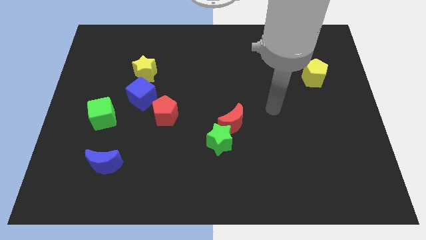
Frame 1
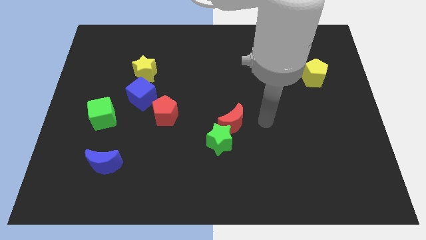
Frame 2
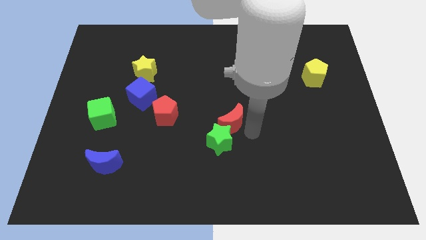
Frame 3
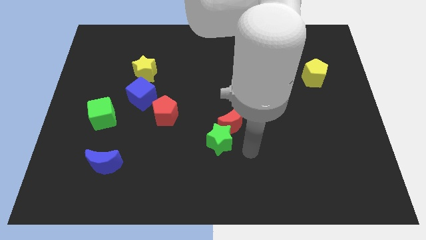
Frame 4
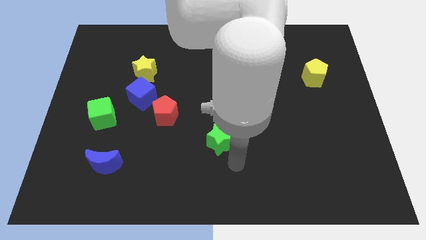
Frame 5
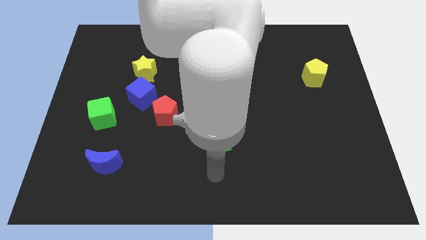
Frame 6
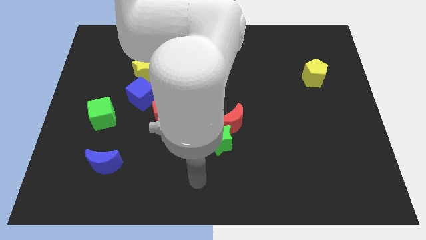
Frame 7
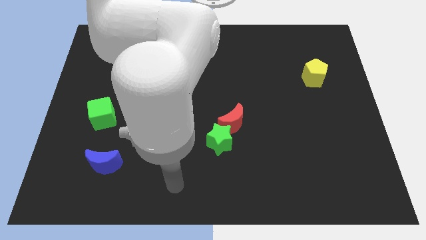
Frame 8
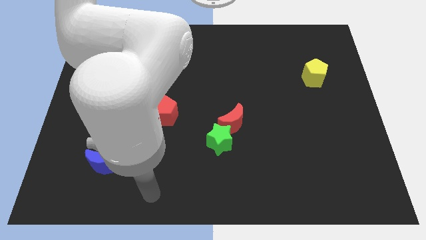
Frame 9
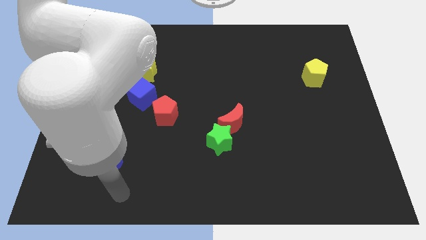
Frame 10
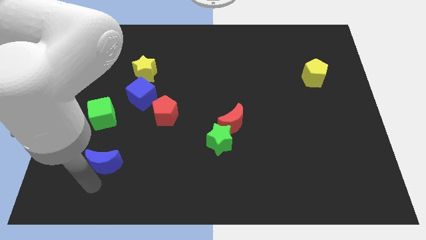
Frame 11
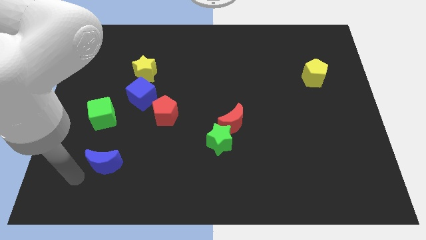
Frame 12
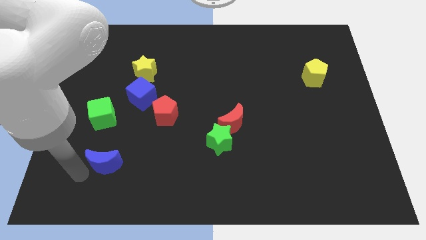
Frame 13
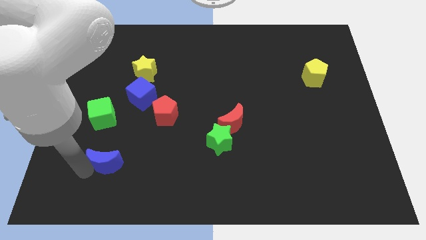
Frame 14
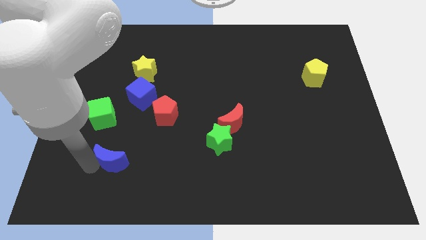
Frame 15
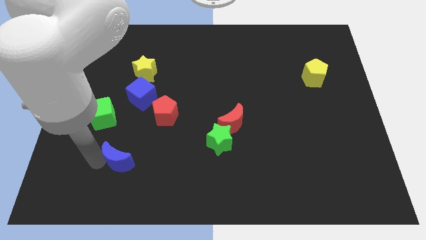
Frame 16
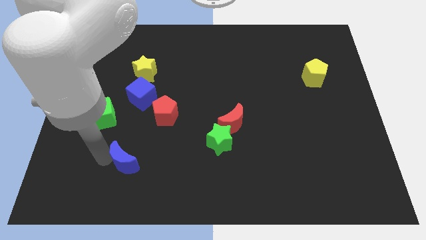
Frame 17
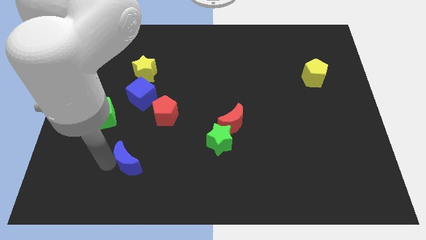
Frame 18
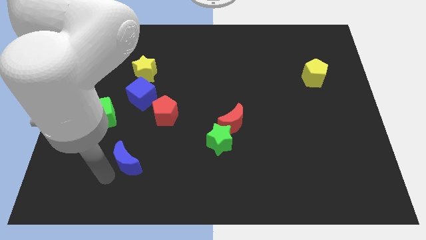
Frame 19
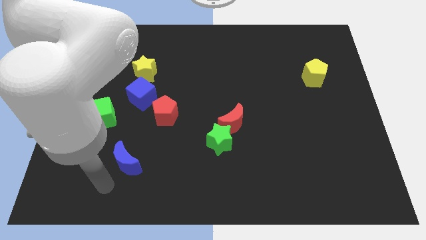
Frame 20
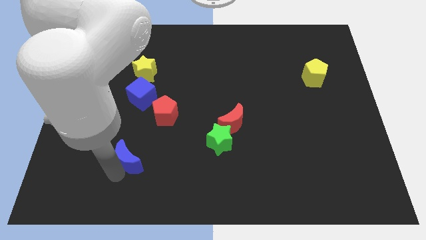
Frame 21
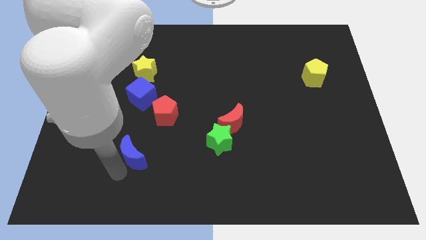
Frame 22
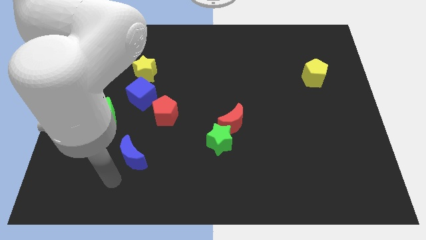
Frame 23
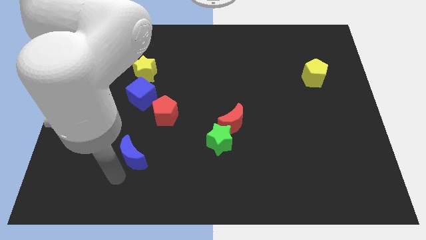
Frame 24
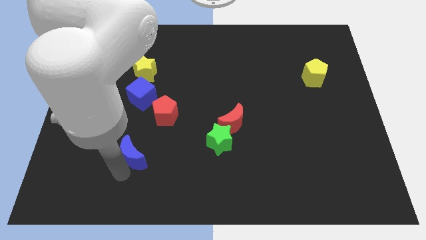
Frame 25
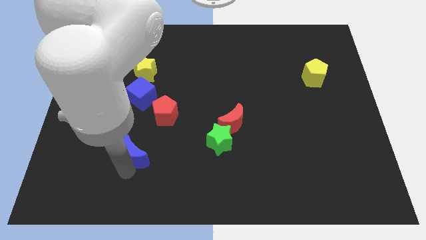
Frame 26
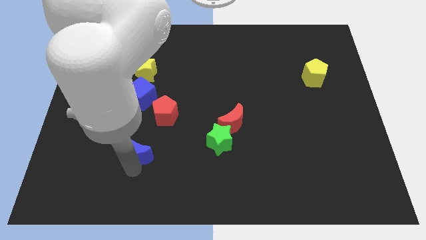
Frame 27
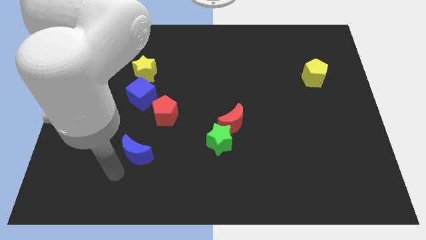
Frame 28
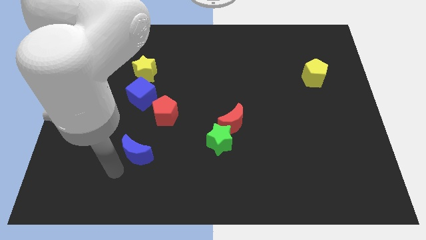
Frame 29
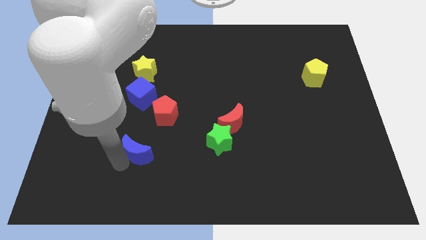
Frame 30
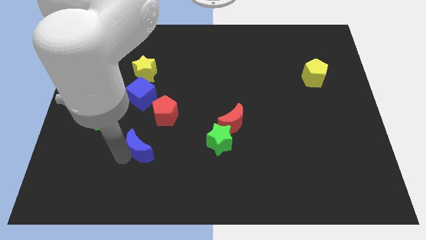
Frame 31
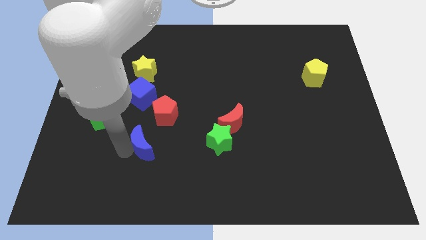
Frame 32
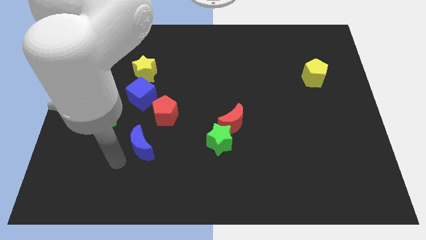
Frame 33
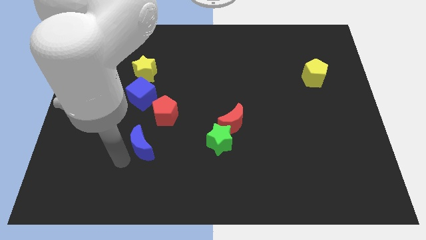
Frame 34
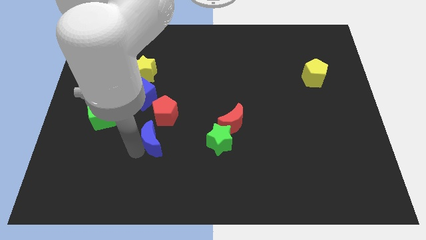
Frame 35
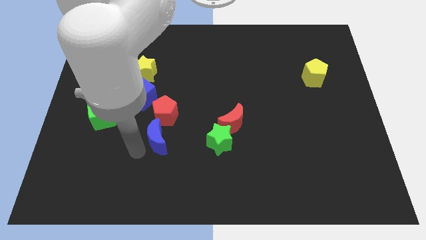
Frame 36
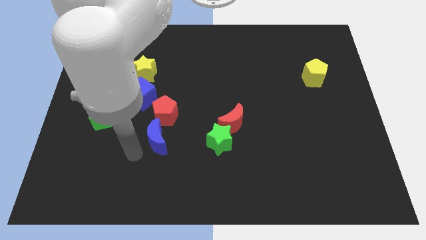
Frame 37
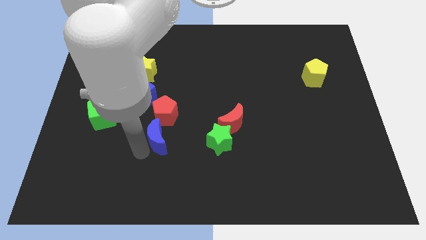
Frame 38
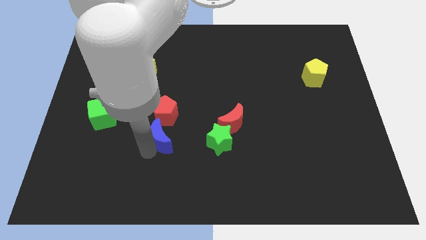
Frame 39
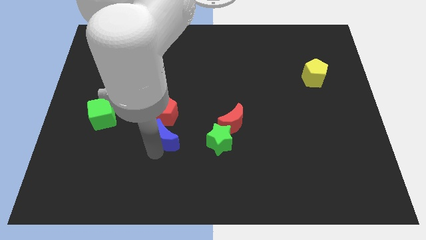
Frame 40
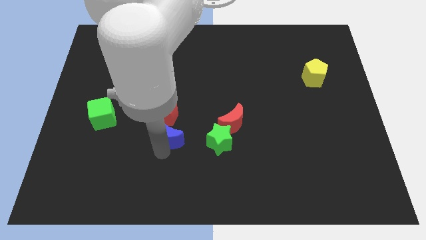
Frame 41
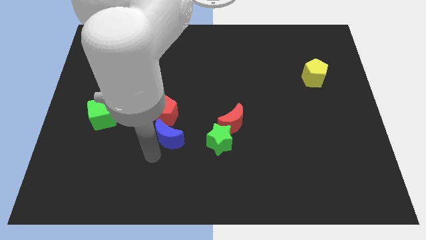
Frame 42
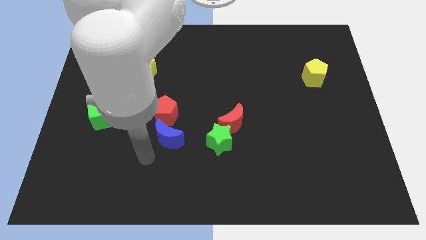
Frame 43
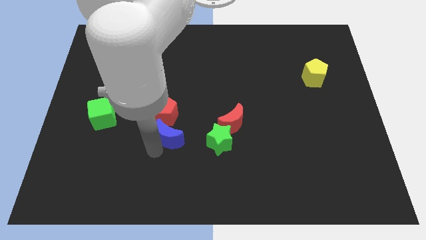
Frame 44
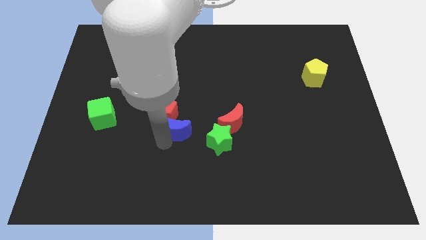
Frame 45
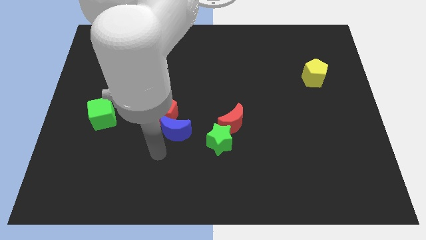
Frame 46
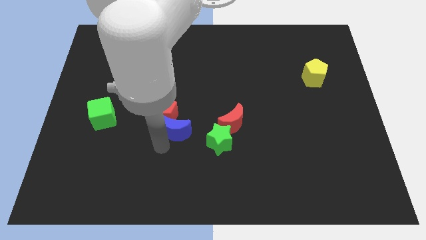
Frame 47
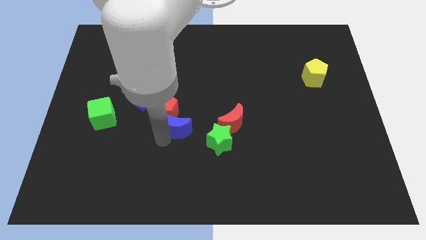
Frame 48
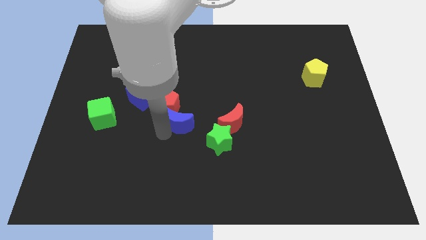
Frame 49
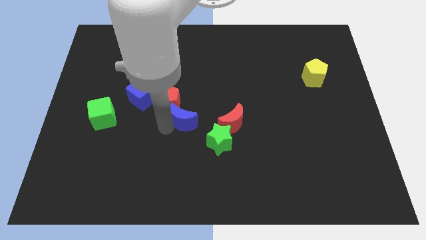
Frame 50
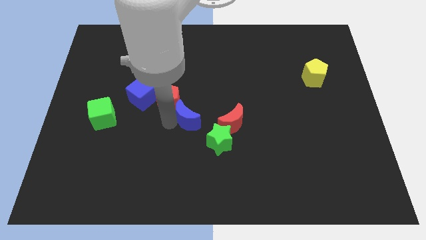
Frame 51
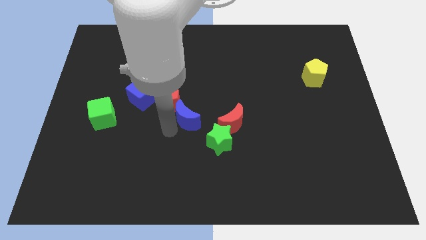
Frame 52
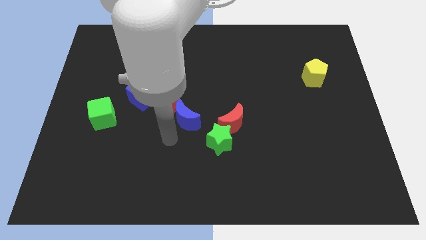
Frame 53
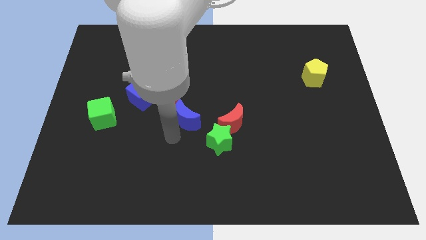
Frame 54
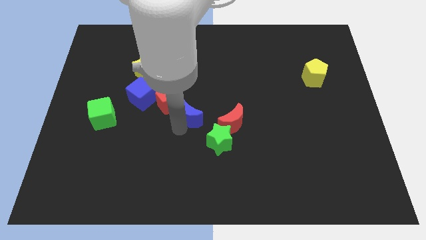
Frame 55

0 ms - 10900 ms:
slide the blue moon upwards and then to the right

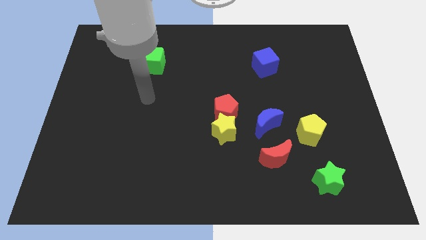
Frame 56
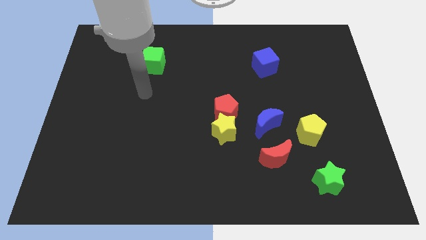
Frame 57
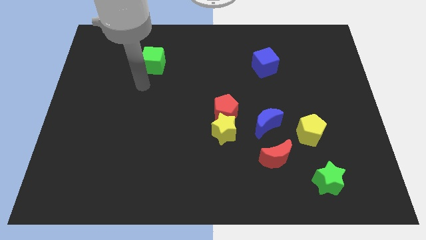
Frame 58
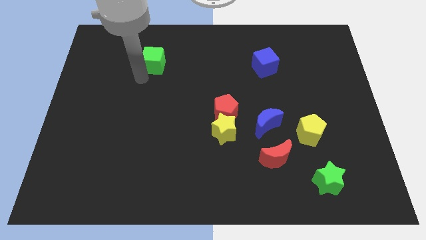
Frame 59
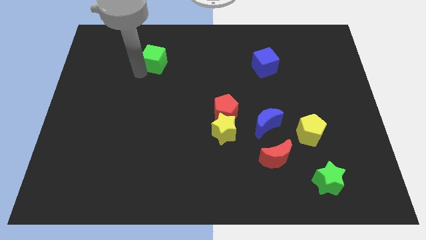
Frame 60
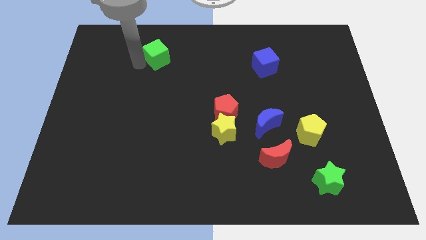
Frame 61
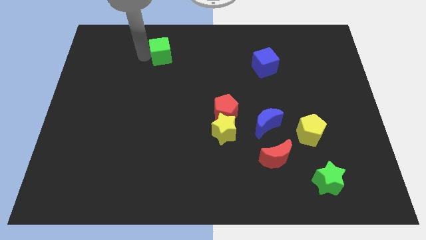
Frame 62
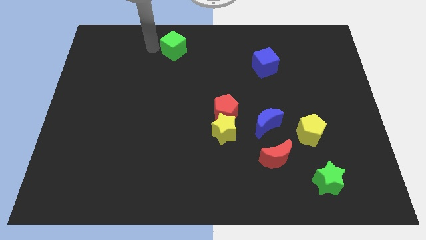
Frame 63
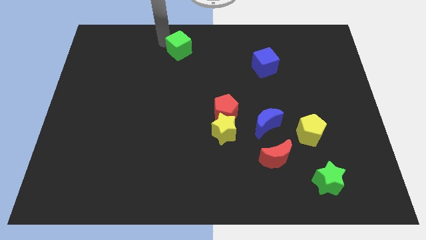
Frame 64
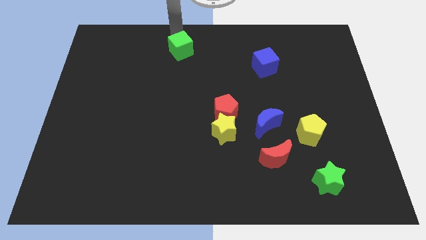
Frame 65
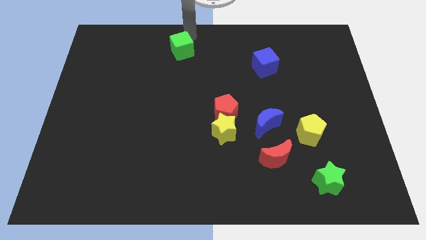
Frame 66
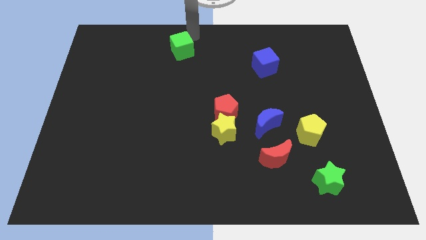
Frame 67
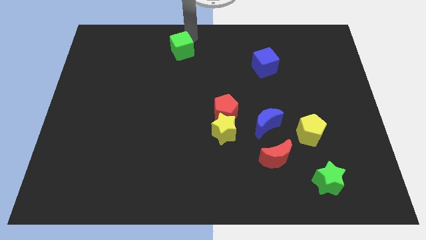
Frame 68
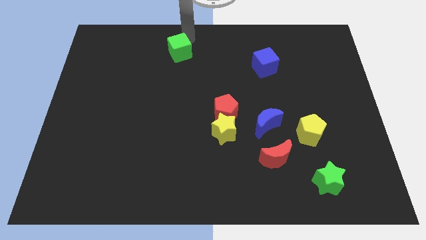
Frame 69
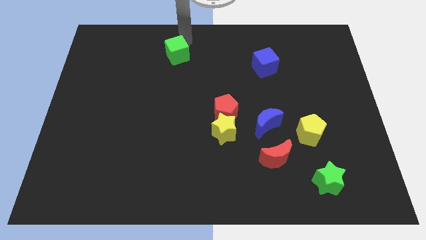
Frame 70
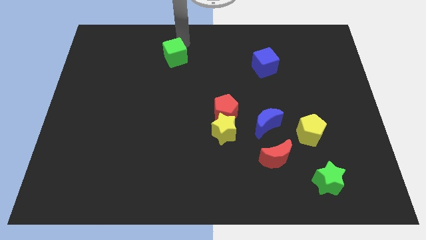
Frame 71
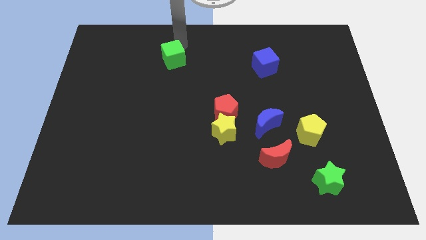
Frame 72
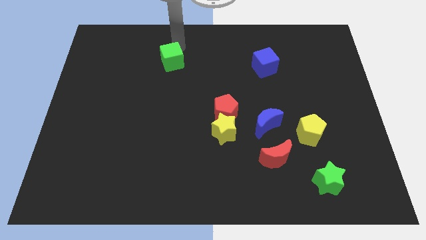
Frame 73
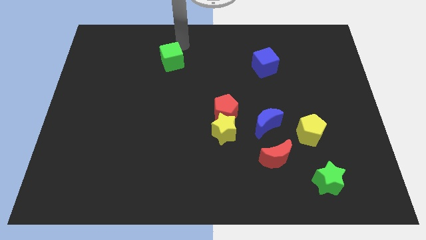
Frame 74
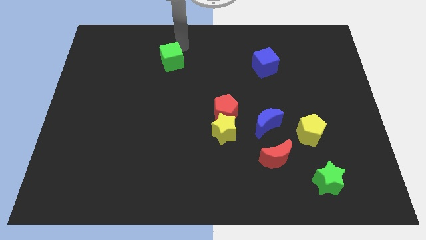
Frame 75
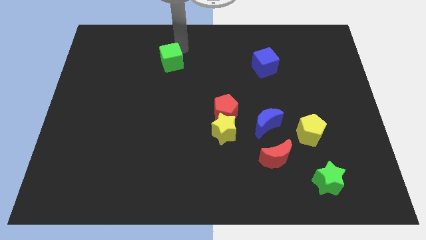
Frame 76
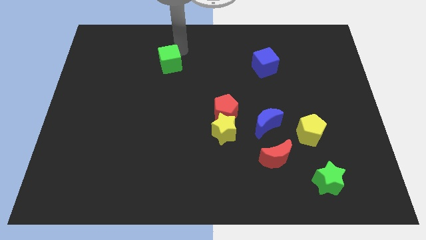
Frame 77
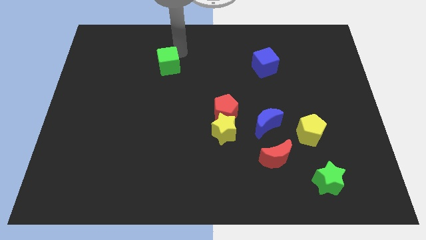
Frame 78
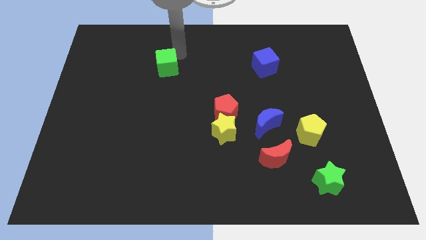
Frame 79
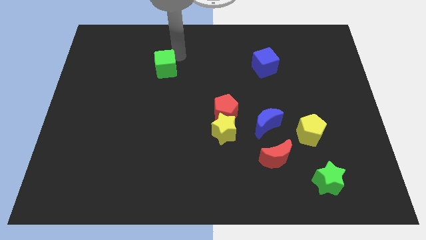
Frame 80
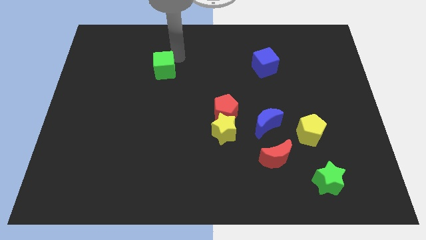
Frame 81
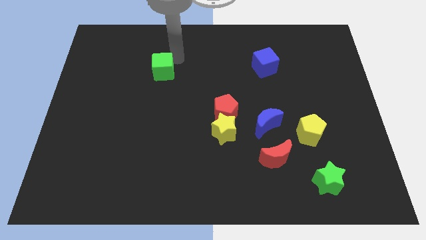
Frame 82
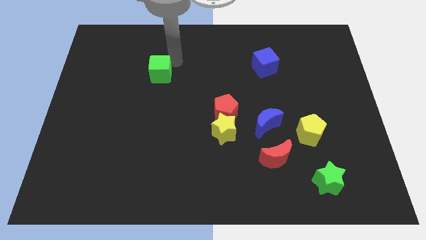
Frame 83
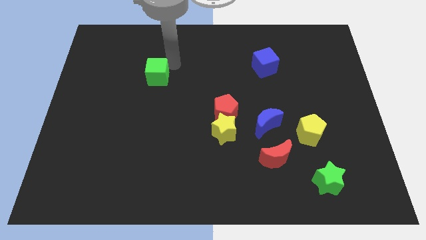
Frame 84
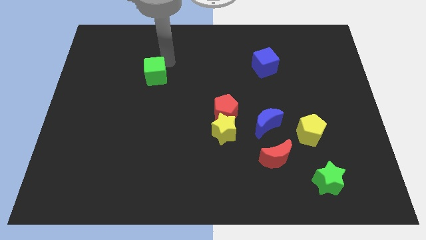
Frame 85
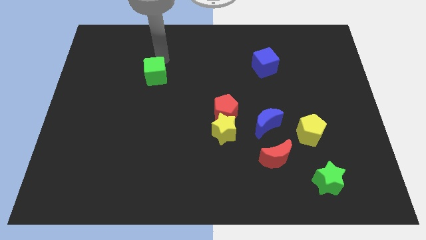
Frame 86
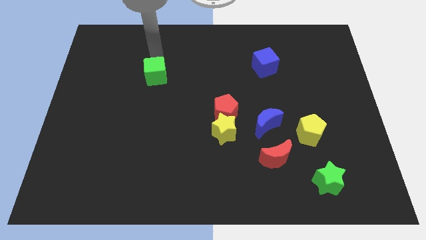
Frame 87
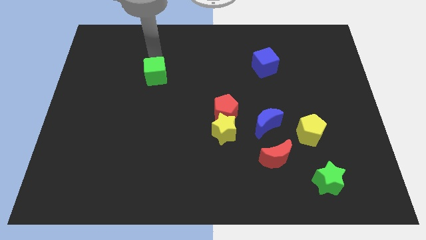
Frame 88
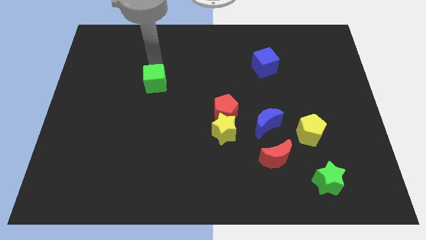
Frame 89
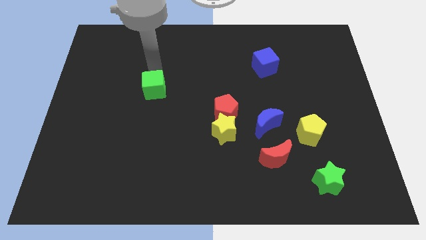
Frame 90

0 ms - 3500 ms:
slide the green cube slightly downwards
